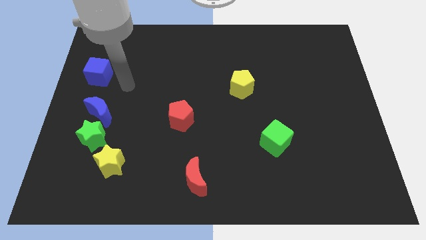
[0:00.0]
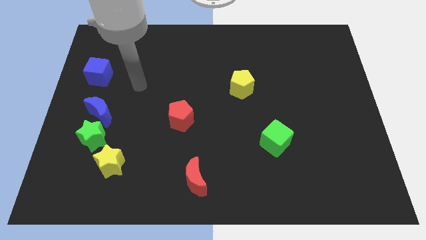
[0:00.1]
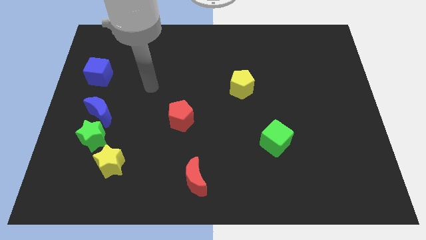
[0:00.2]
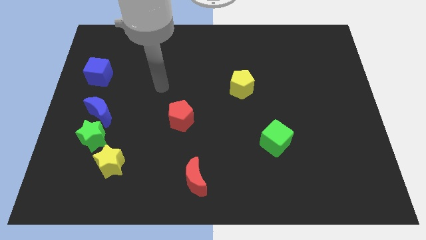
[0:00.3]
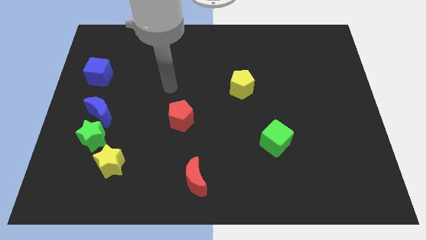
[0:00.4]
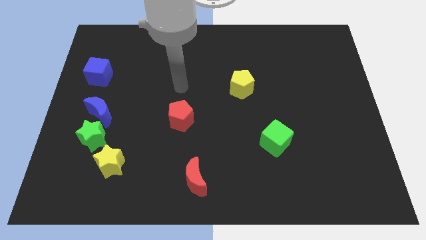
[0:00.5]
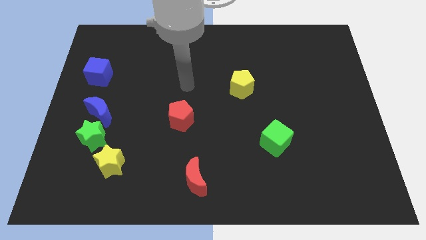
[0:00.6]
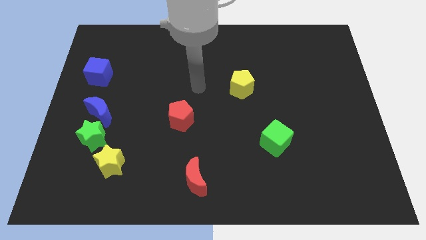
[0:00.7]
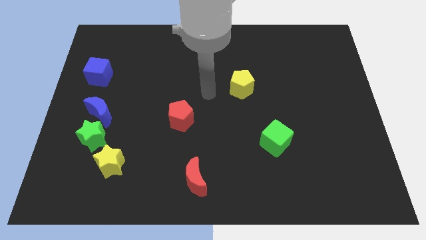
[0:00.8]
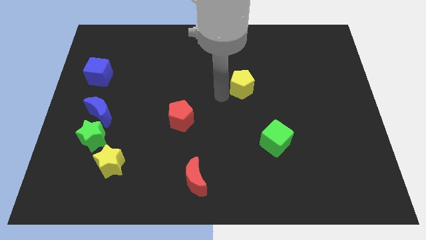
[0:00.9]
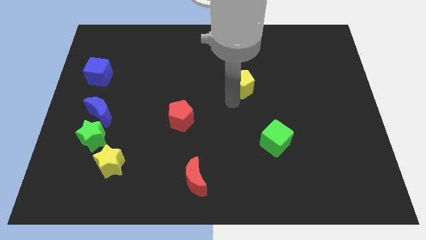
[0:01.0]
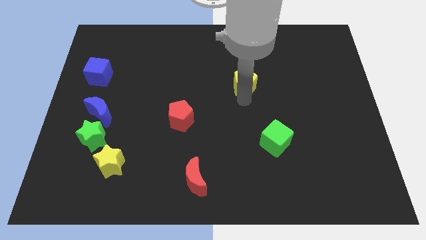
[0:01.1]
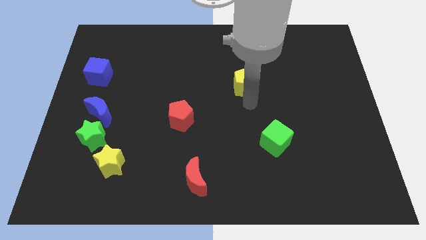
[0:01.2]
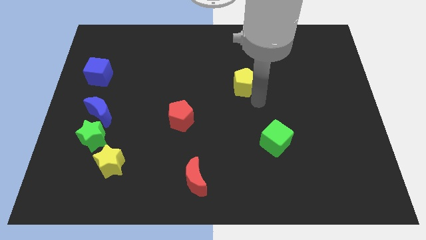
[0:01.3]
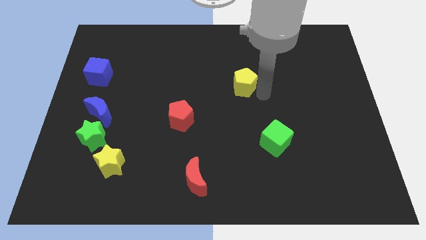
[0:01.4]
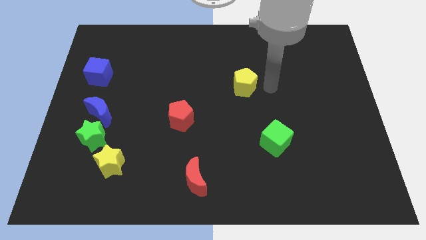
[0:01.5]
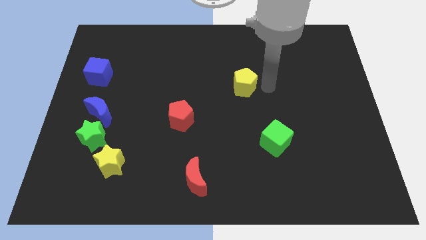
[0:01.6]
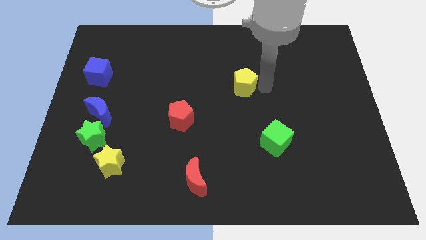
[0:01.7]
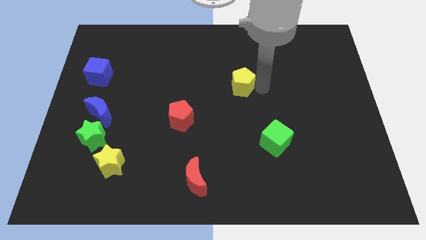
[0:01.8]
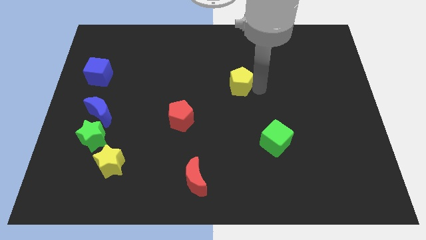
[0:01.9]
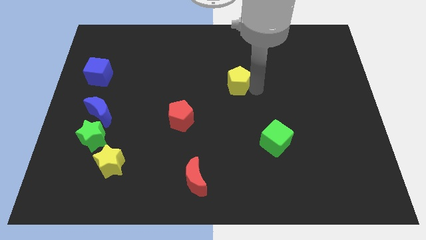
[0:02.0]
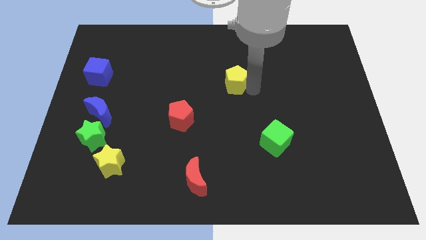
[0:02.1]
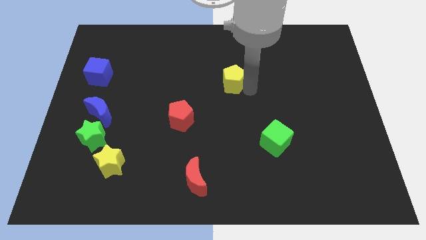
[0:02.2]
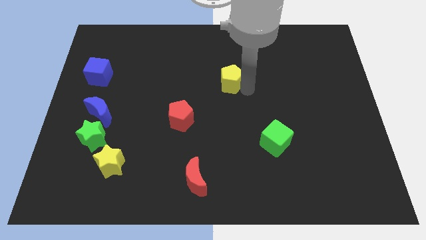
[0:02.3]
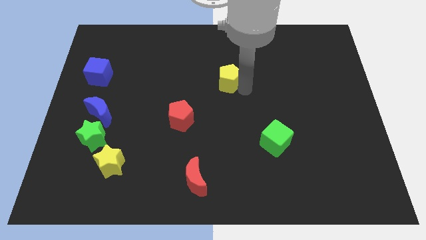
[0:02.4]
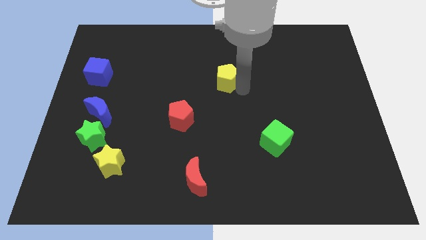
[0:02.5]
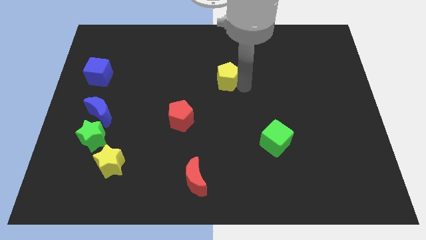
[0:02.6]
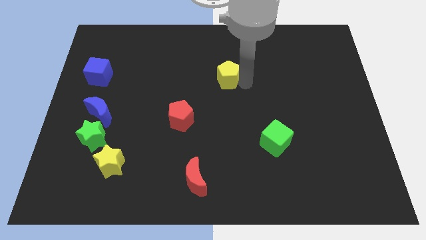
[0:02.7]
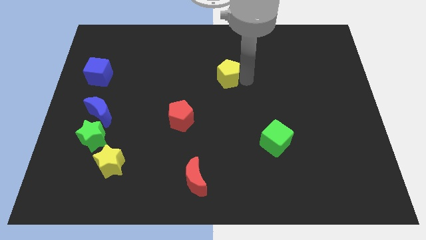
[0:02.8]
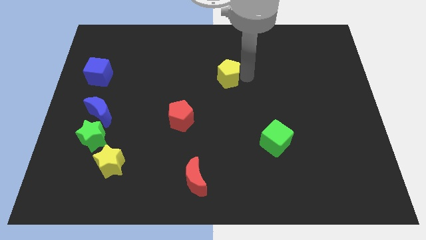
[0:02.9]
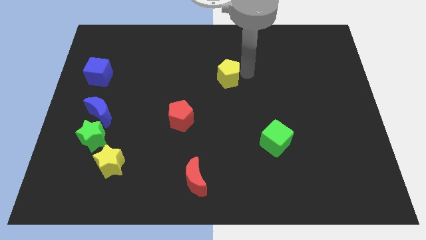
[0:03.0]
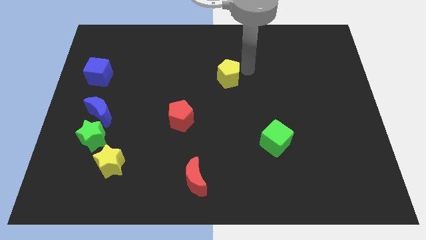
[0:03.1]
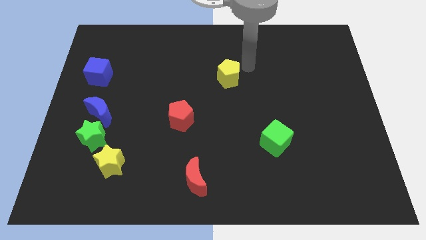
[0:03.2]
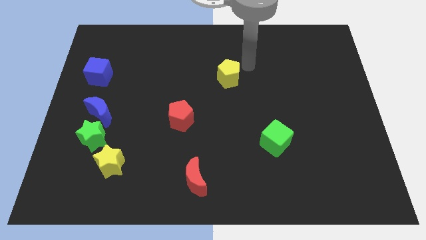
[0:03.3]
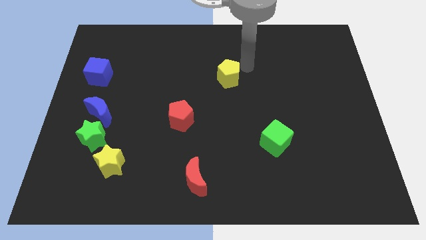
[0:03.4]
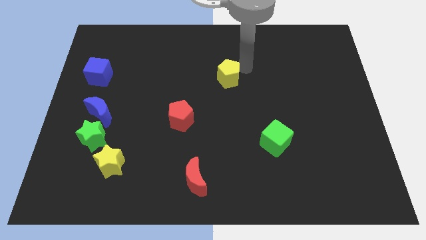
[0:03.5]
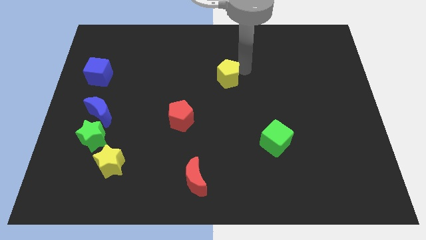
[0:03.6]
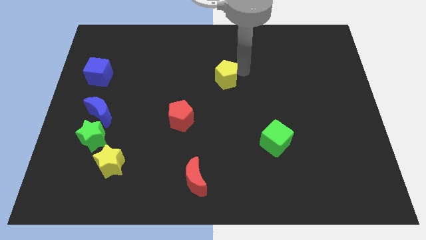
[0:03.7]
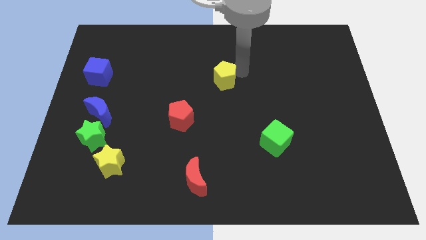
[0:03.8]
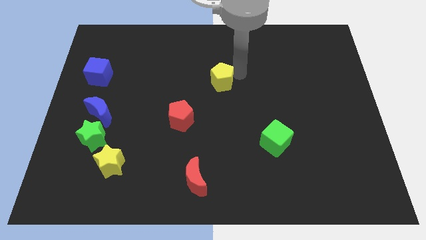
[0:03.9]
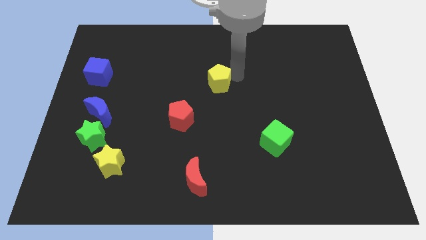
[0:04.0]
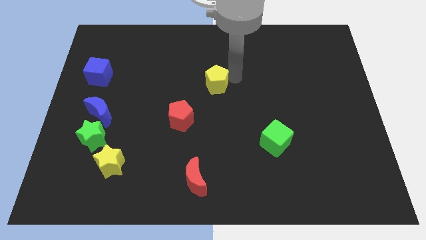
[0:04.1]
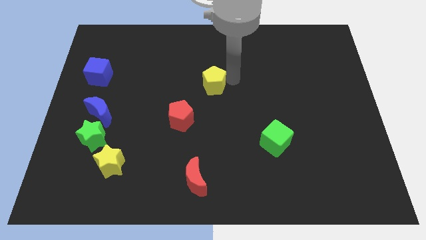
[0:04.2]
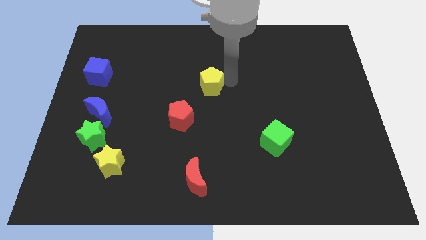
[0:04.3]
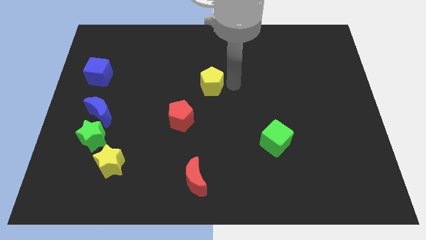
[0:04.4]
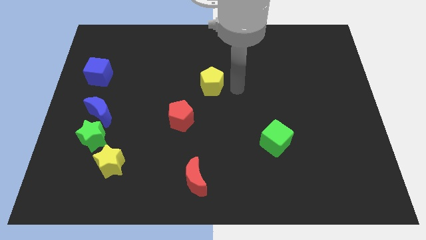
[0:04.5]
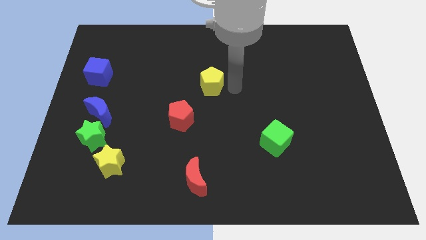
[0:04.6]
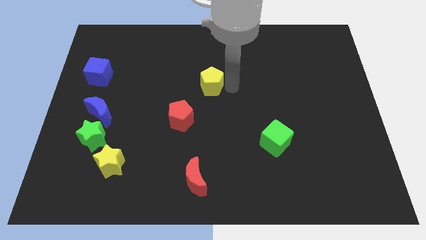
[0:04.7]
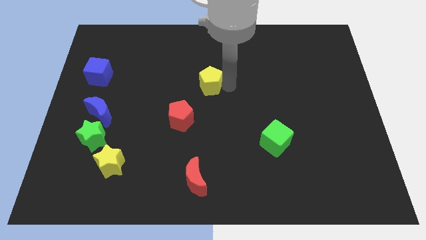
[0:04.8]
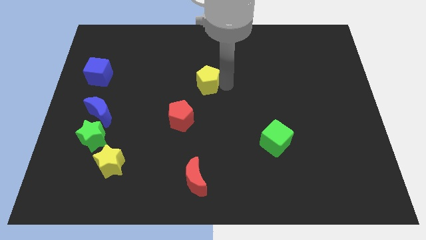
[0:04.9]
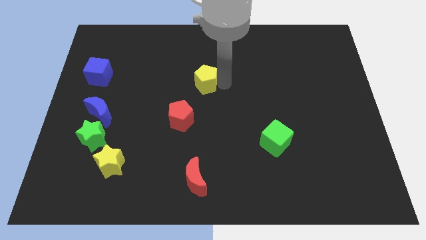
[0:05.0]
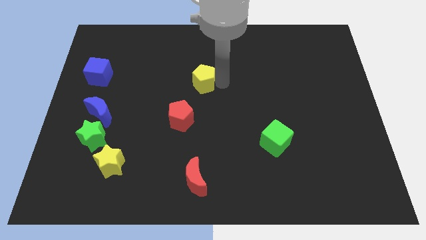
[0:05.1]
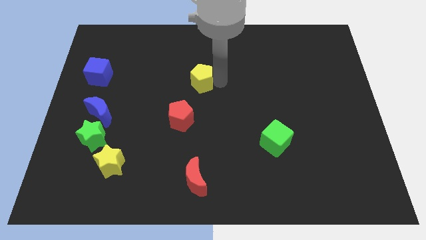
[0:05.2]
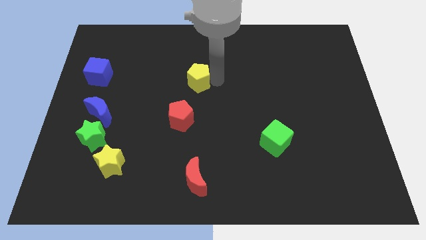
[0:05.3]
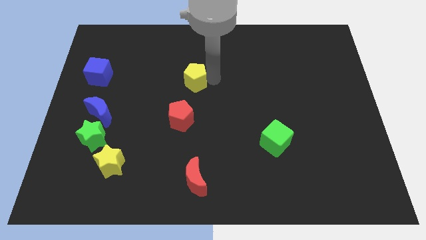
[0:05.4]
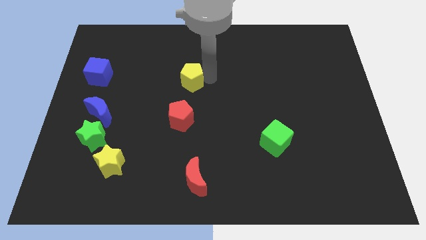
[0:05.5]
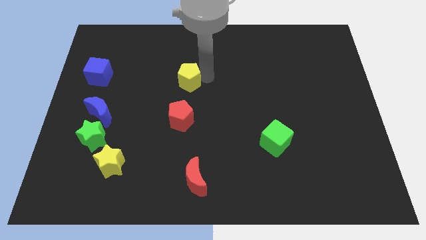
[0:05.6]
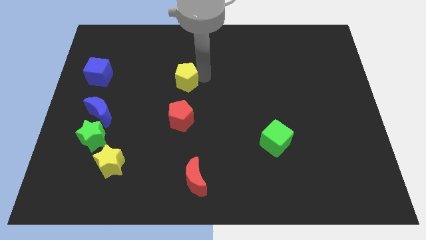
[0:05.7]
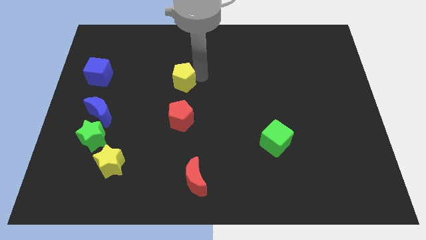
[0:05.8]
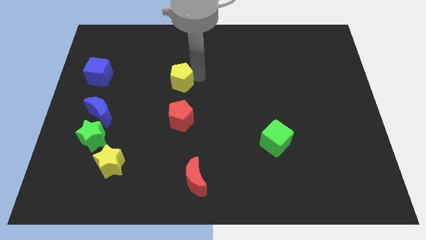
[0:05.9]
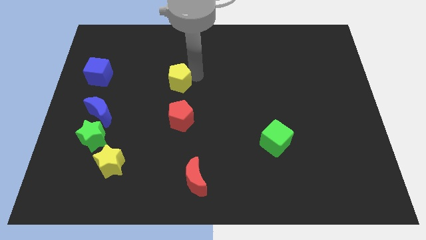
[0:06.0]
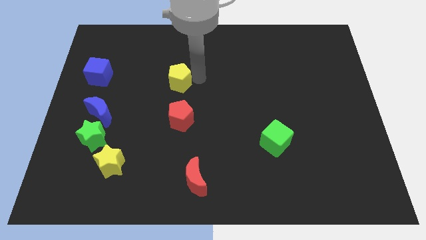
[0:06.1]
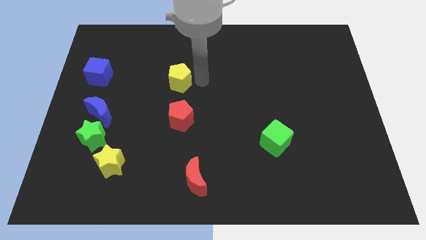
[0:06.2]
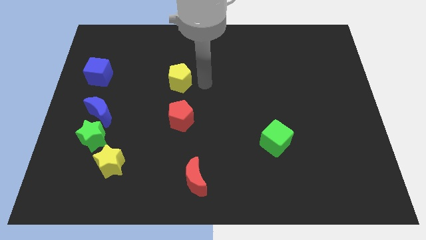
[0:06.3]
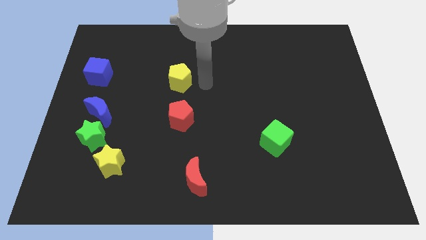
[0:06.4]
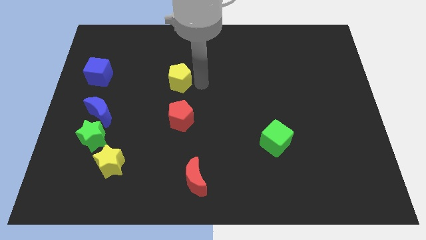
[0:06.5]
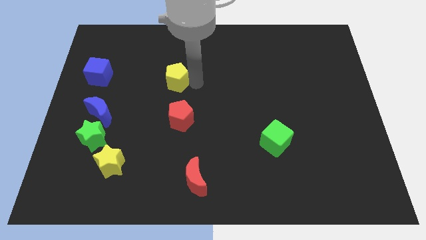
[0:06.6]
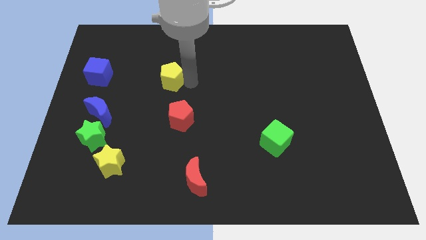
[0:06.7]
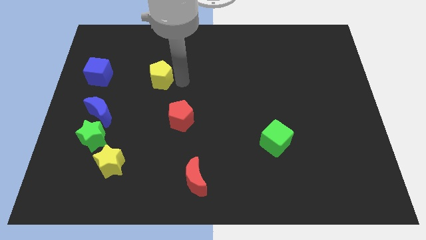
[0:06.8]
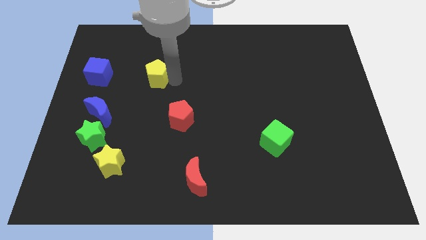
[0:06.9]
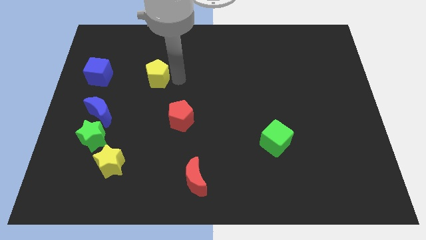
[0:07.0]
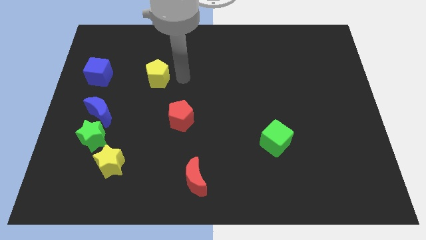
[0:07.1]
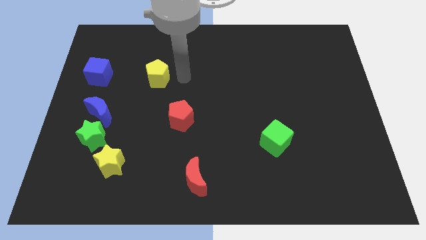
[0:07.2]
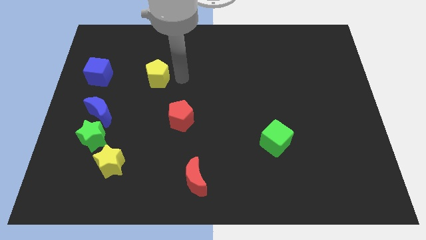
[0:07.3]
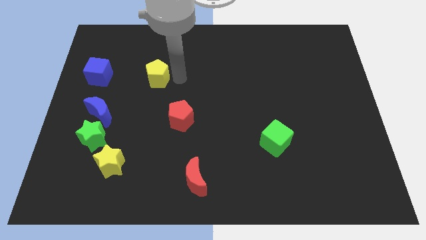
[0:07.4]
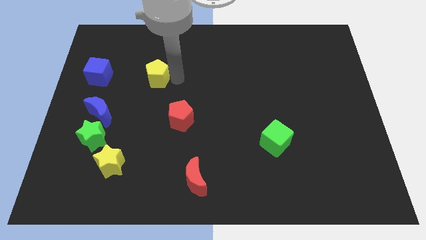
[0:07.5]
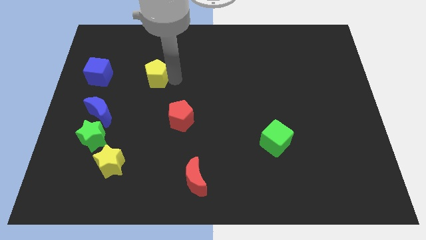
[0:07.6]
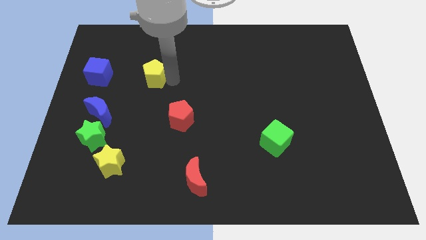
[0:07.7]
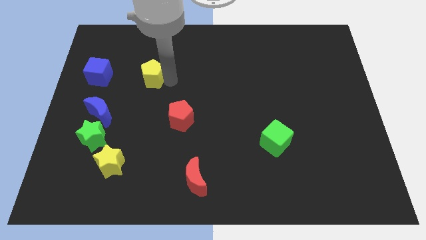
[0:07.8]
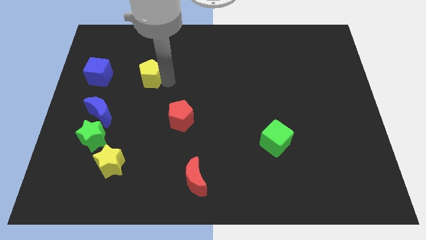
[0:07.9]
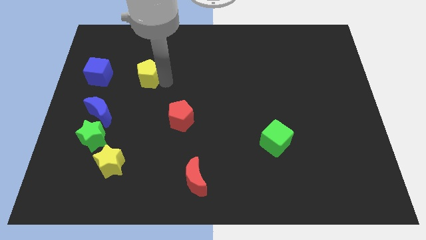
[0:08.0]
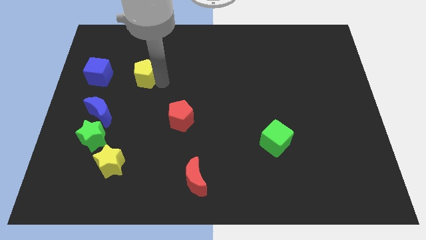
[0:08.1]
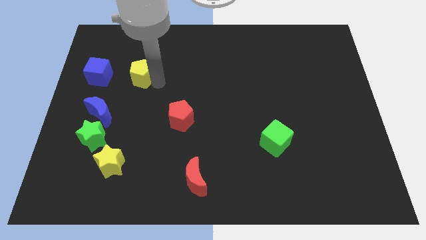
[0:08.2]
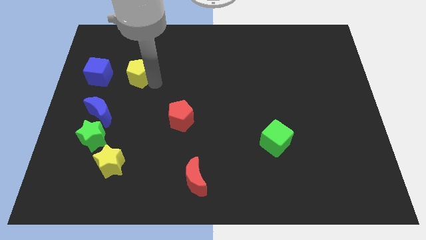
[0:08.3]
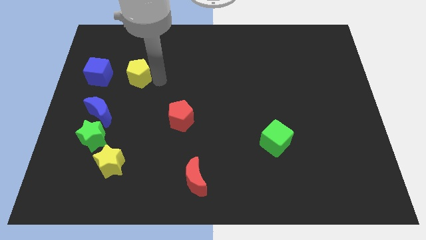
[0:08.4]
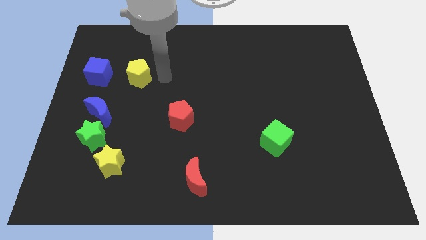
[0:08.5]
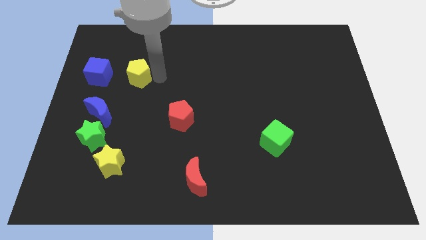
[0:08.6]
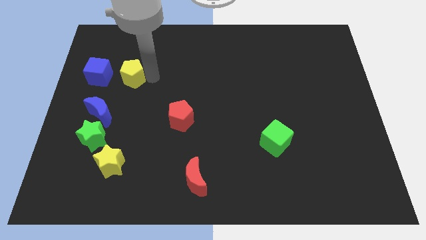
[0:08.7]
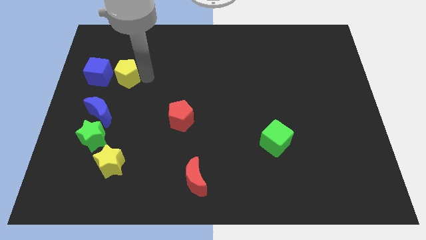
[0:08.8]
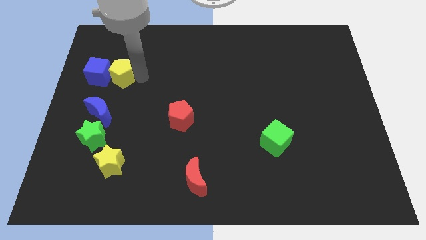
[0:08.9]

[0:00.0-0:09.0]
push the yellow pentagon close to the blue cube
